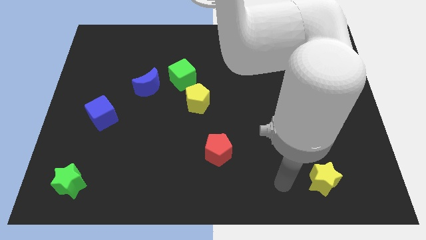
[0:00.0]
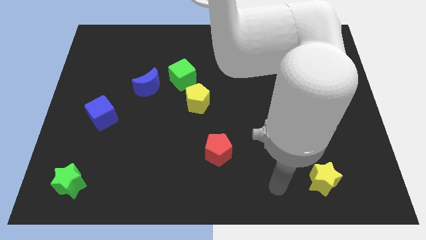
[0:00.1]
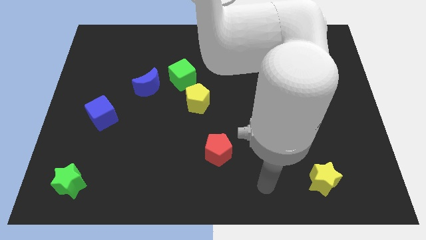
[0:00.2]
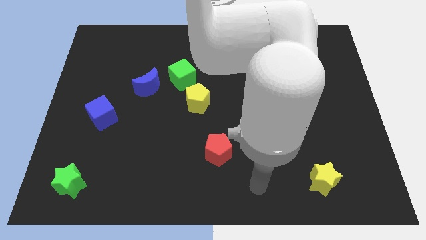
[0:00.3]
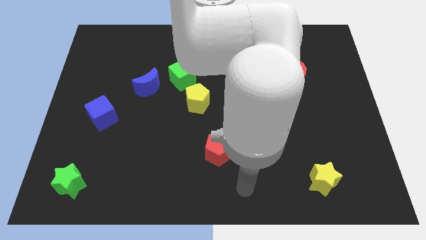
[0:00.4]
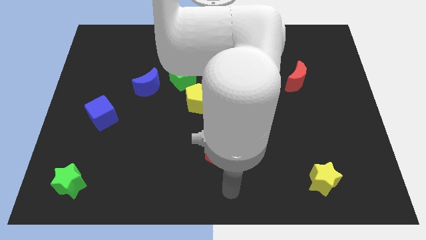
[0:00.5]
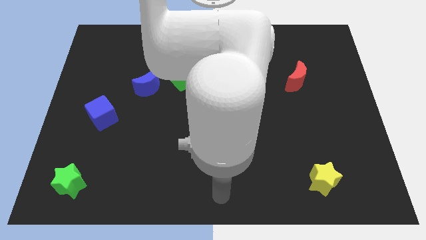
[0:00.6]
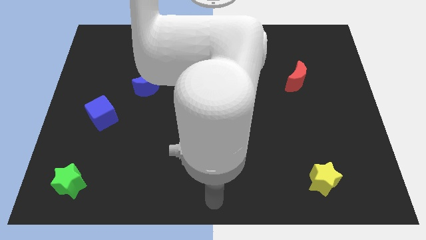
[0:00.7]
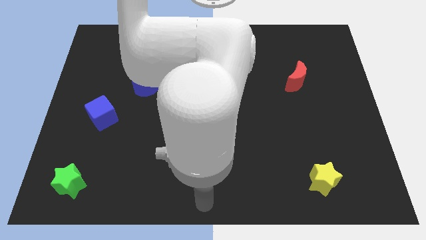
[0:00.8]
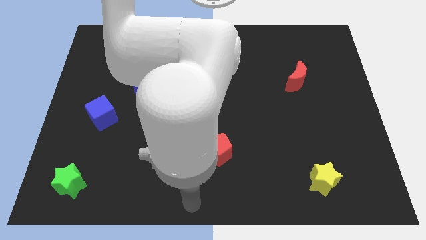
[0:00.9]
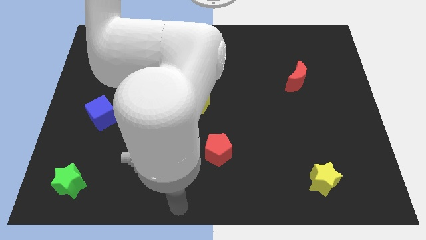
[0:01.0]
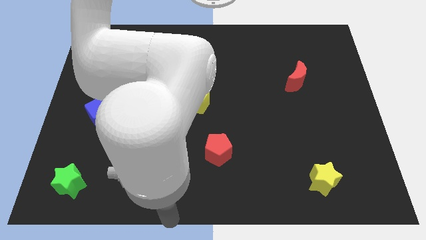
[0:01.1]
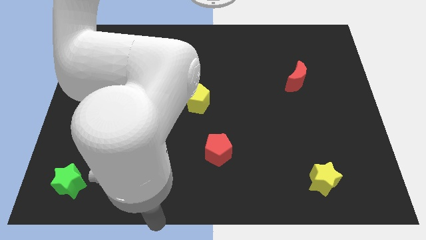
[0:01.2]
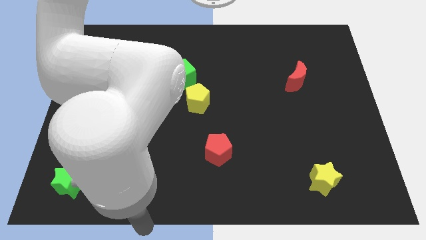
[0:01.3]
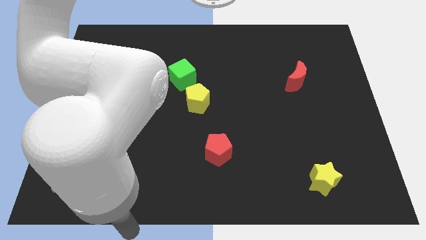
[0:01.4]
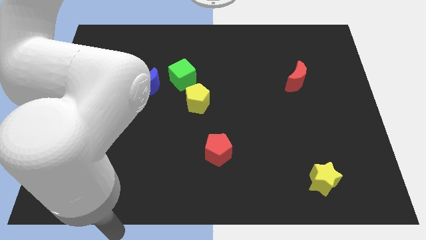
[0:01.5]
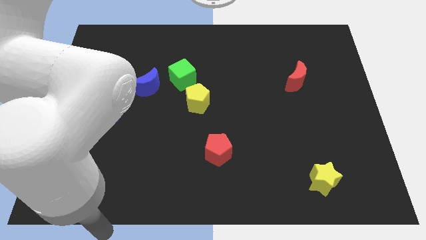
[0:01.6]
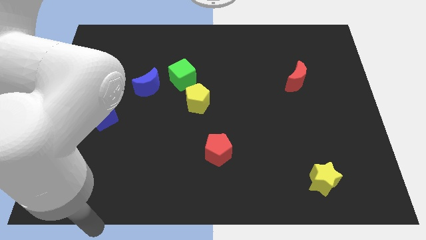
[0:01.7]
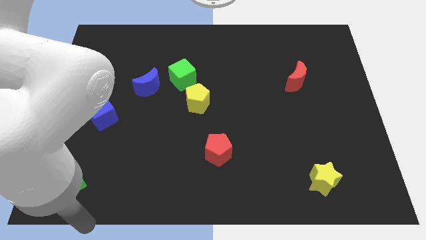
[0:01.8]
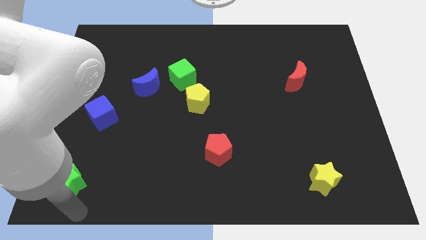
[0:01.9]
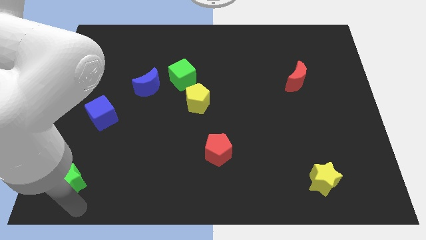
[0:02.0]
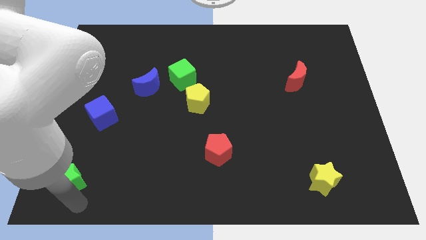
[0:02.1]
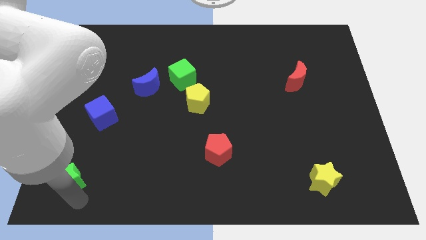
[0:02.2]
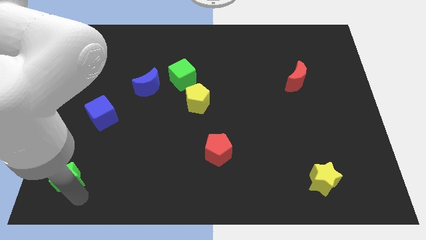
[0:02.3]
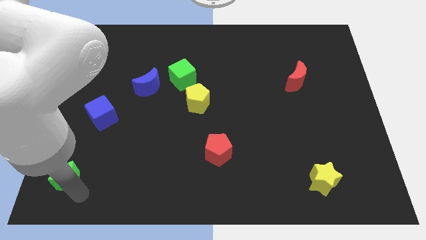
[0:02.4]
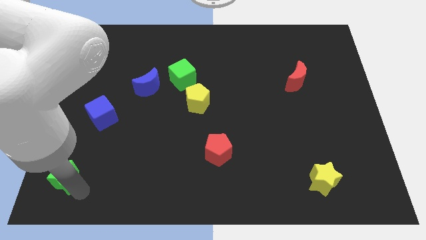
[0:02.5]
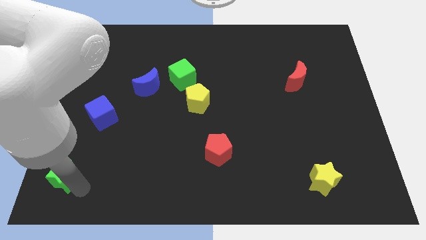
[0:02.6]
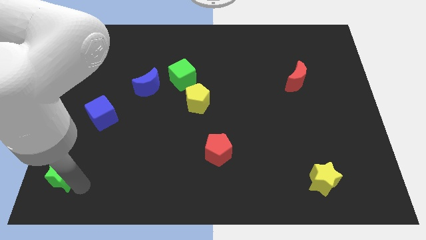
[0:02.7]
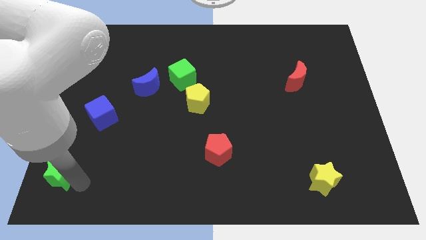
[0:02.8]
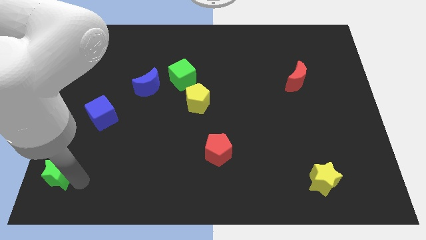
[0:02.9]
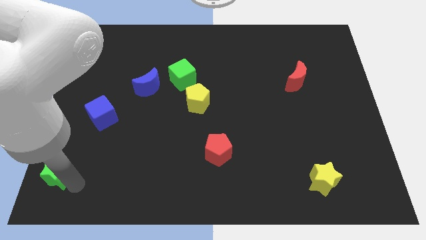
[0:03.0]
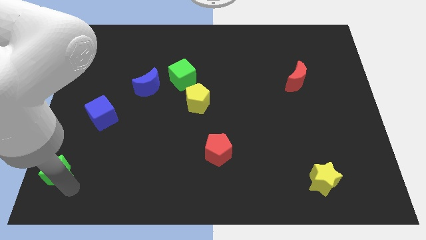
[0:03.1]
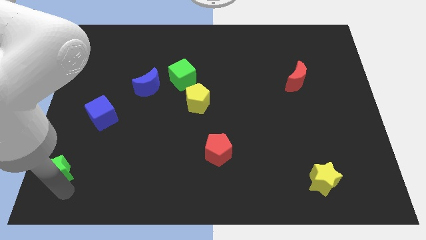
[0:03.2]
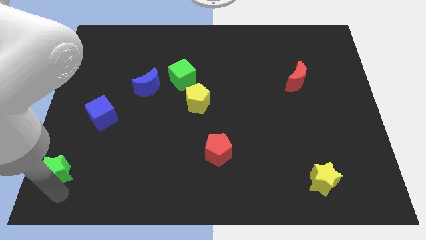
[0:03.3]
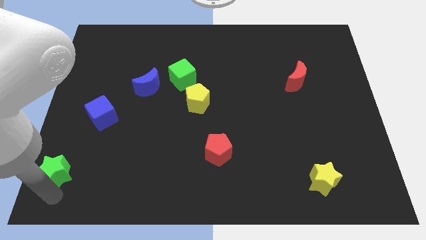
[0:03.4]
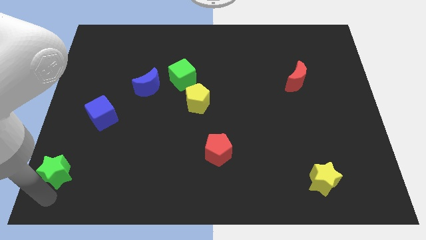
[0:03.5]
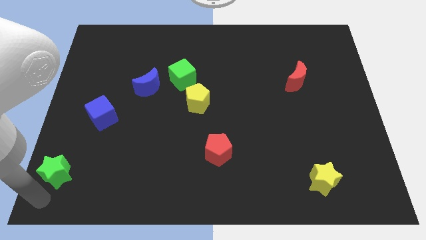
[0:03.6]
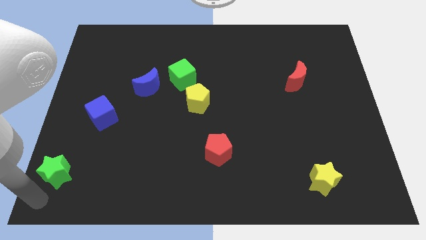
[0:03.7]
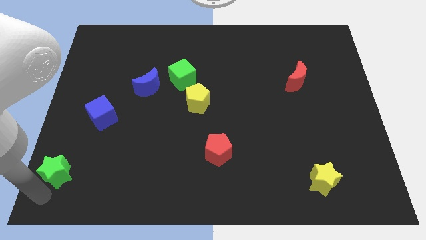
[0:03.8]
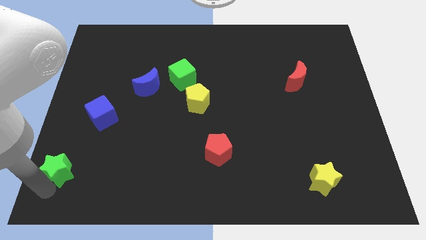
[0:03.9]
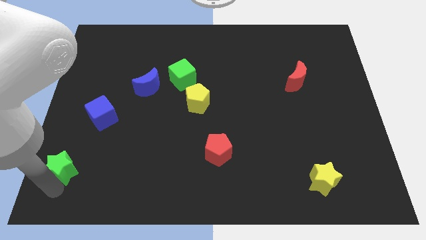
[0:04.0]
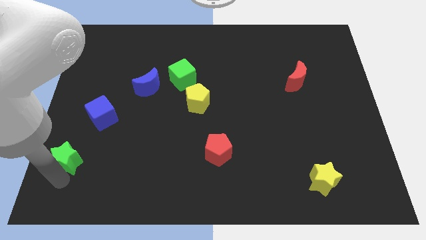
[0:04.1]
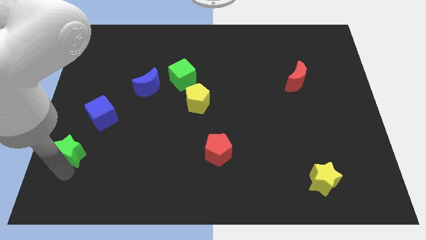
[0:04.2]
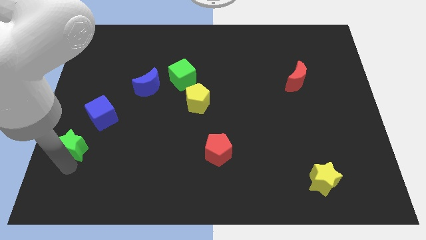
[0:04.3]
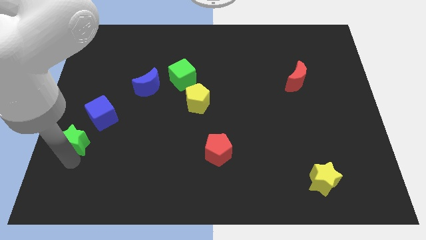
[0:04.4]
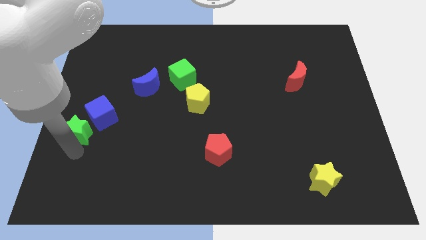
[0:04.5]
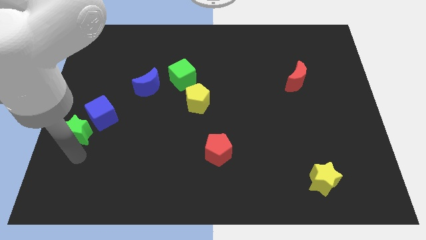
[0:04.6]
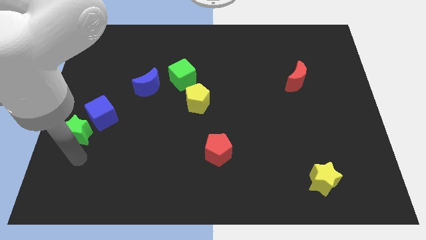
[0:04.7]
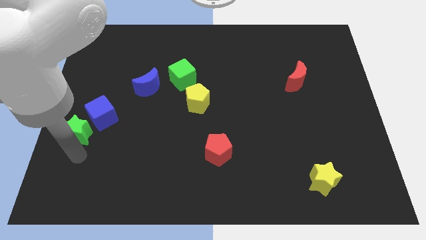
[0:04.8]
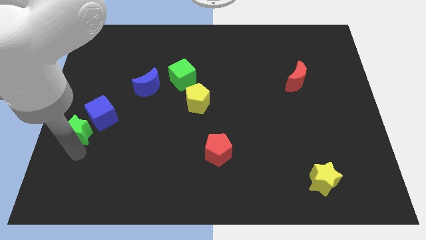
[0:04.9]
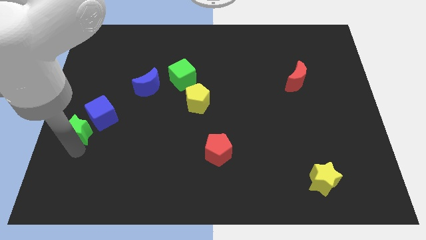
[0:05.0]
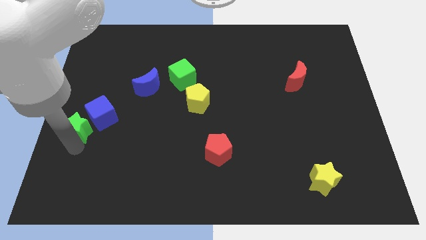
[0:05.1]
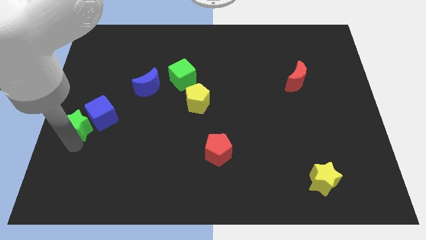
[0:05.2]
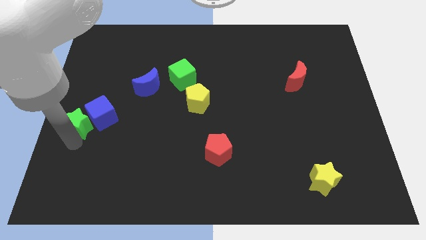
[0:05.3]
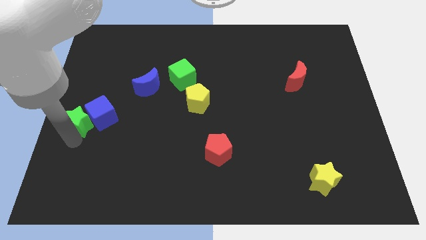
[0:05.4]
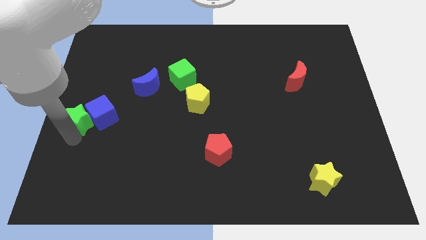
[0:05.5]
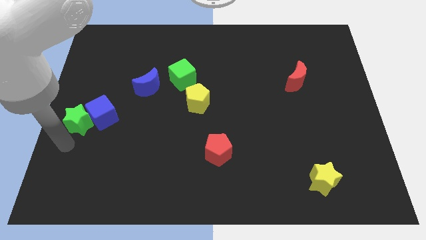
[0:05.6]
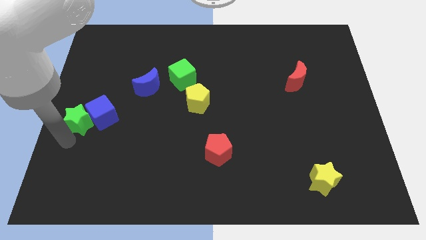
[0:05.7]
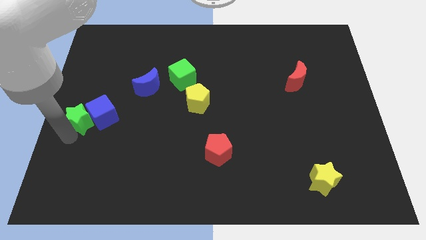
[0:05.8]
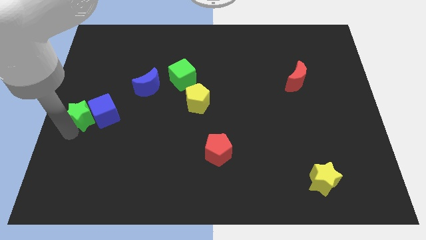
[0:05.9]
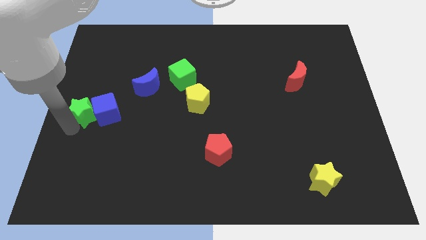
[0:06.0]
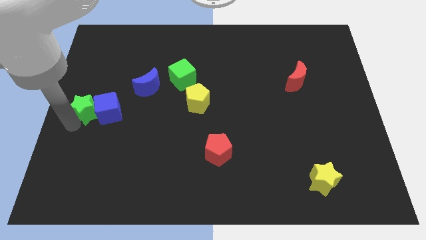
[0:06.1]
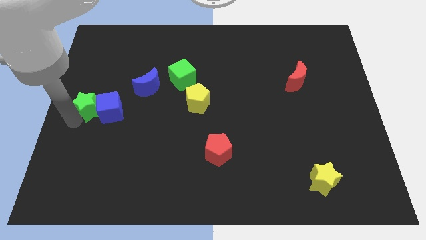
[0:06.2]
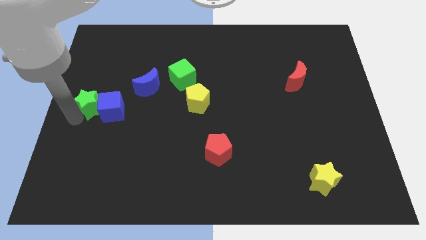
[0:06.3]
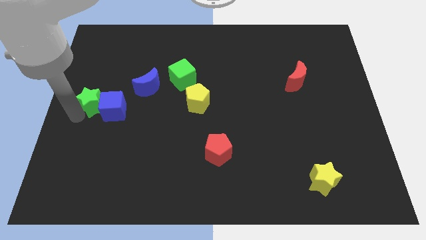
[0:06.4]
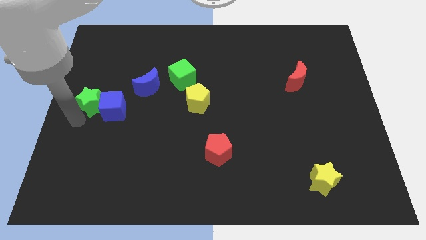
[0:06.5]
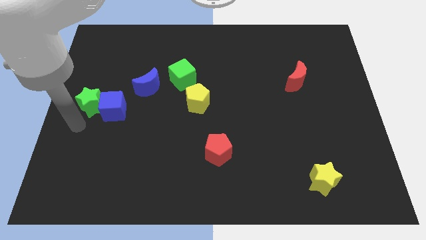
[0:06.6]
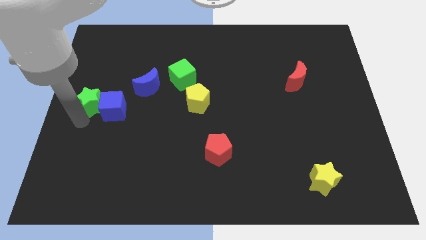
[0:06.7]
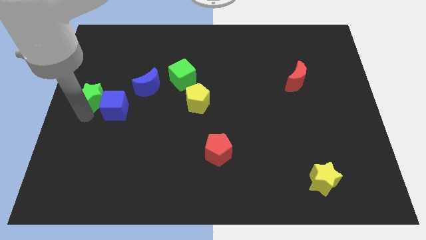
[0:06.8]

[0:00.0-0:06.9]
put the green star to the left side of the blue moon
